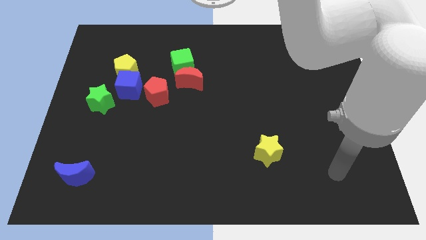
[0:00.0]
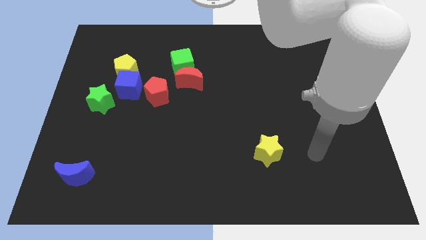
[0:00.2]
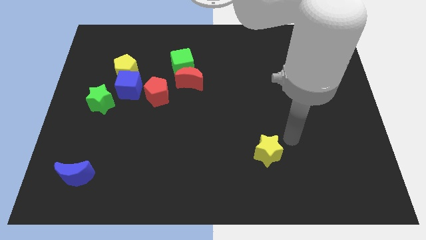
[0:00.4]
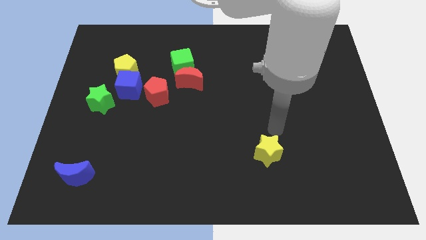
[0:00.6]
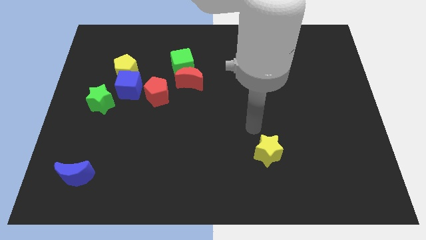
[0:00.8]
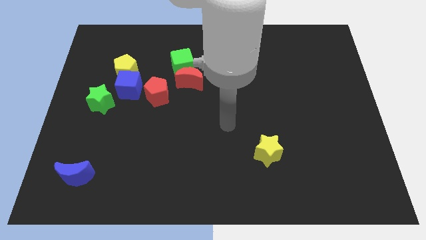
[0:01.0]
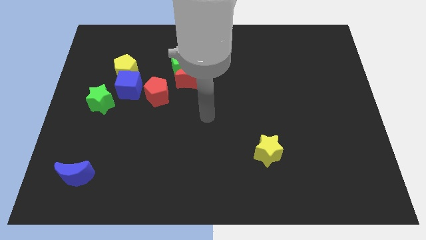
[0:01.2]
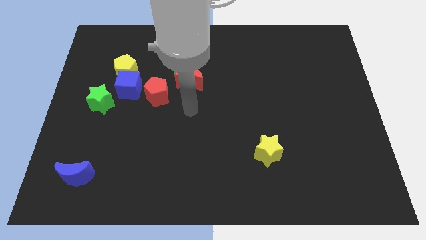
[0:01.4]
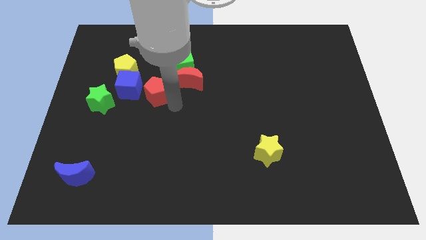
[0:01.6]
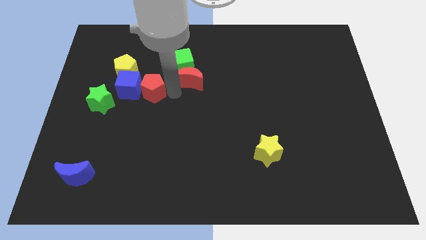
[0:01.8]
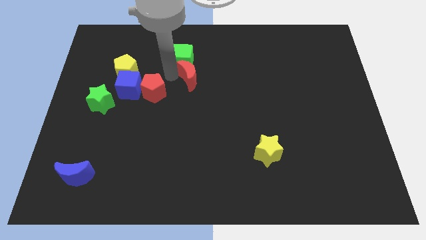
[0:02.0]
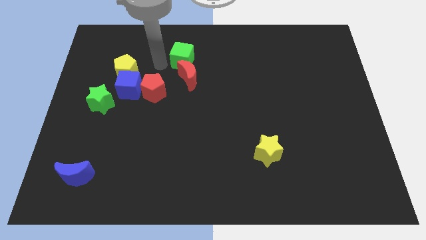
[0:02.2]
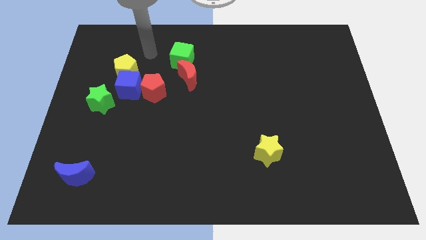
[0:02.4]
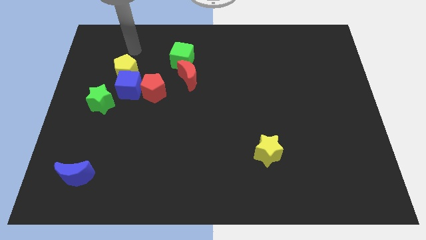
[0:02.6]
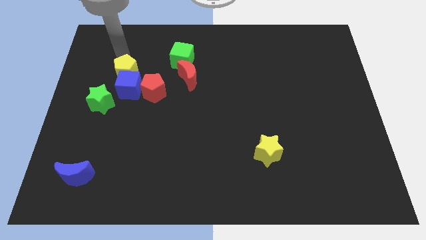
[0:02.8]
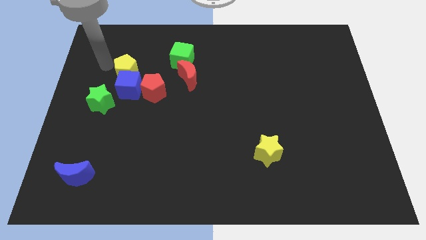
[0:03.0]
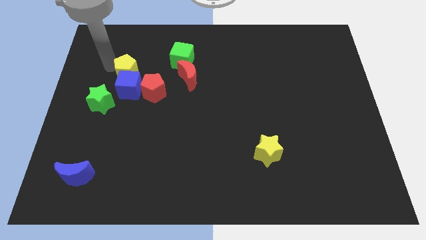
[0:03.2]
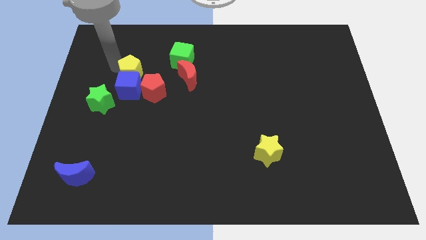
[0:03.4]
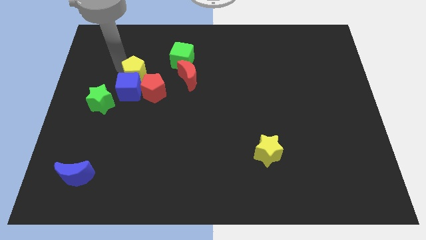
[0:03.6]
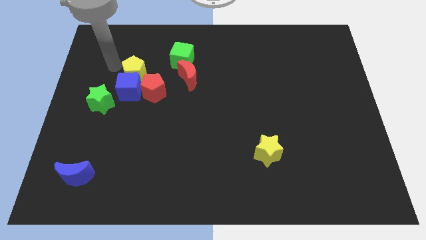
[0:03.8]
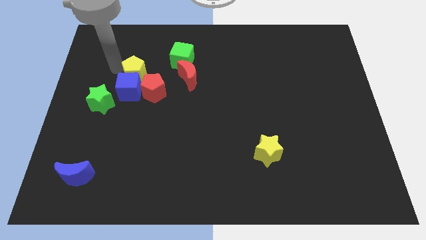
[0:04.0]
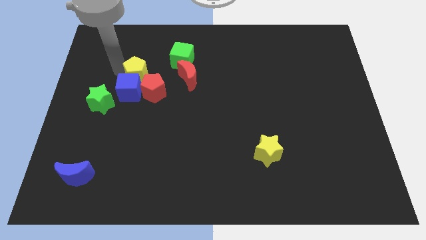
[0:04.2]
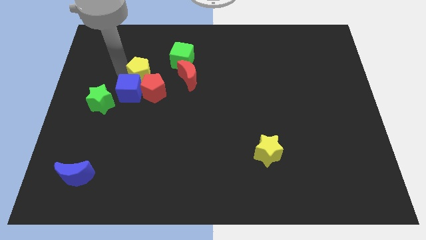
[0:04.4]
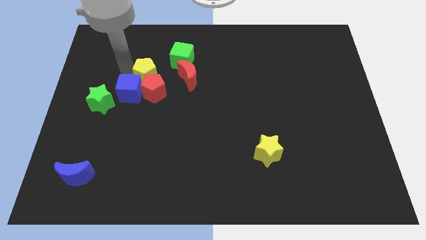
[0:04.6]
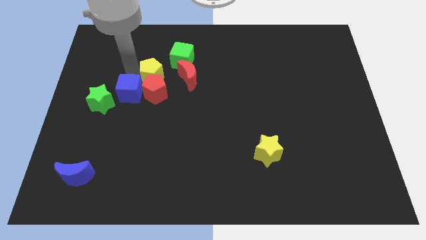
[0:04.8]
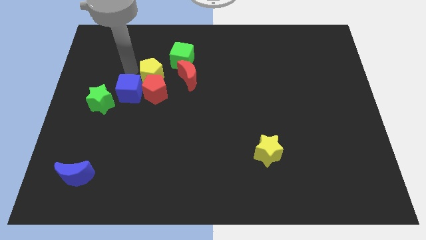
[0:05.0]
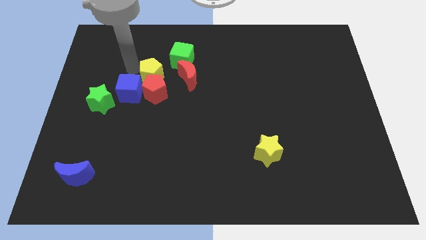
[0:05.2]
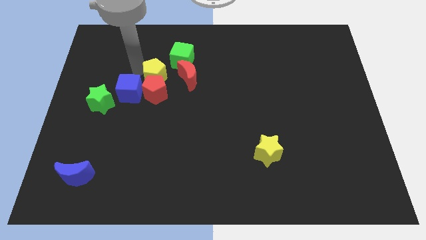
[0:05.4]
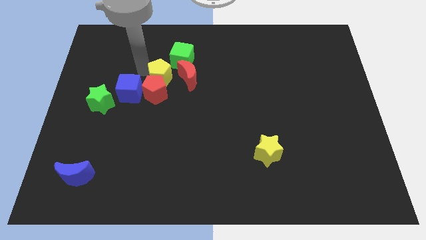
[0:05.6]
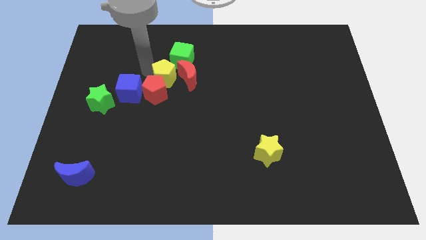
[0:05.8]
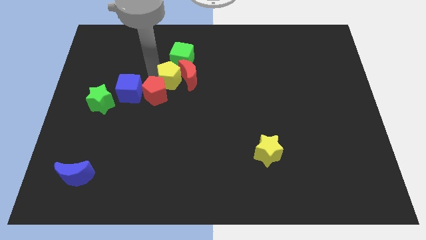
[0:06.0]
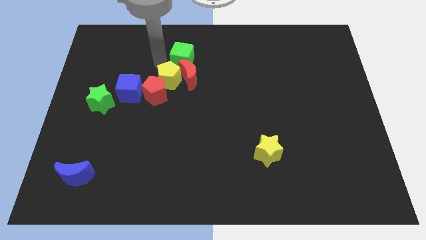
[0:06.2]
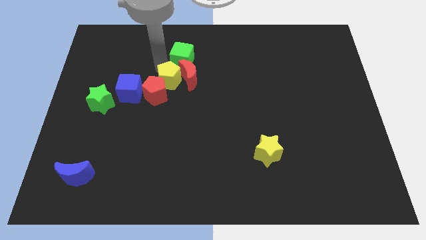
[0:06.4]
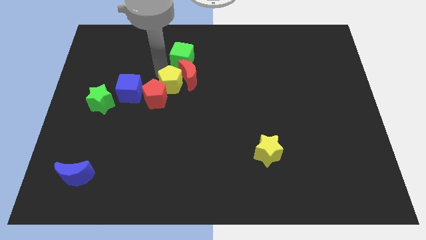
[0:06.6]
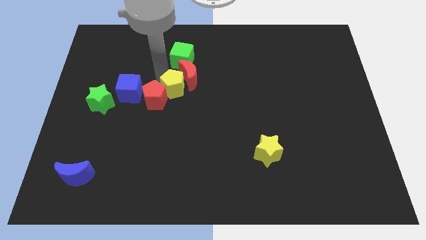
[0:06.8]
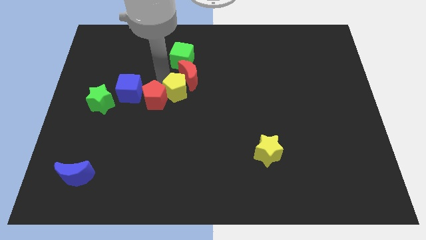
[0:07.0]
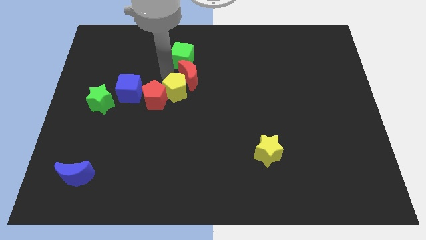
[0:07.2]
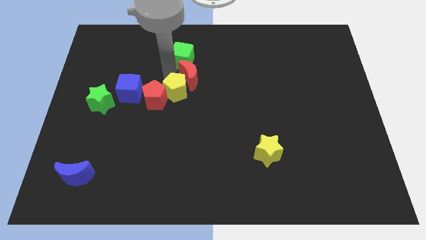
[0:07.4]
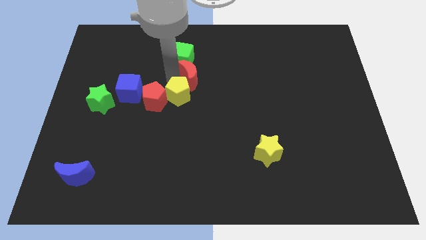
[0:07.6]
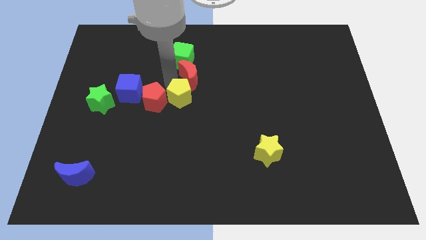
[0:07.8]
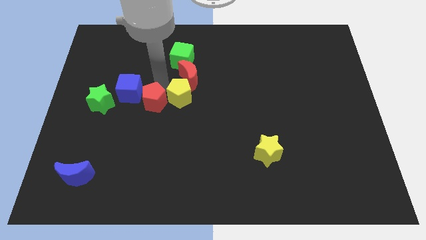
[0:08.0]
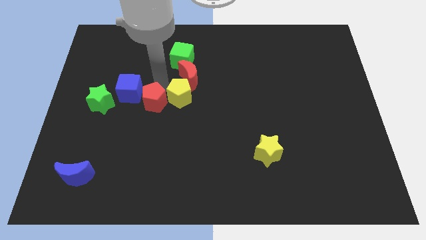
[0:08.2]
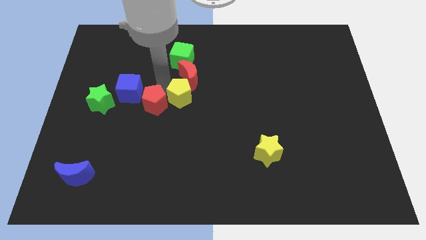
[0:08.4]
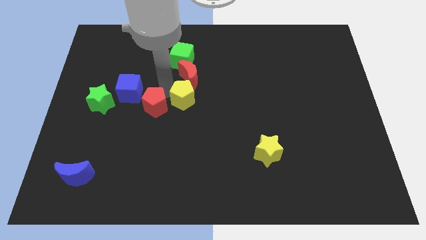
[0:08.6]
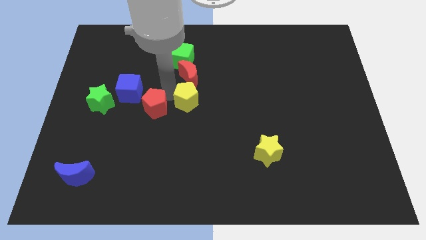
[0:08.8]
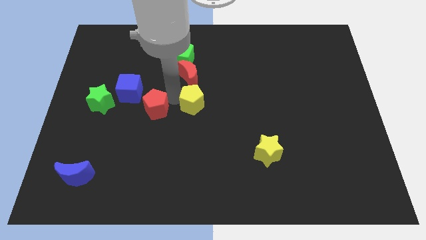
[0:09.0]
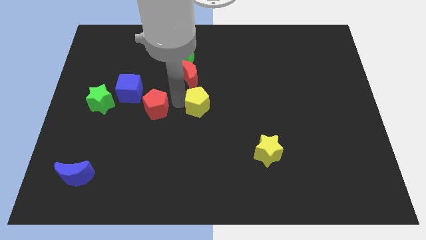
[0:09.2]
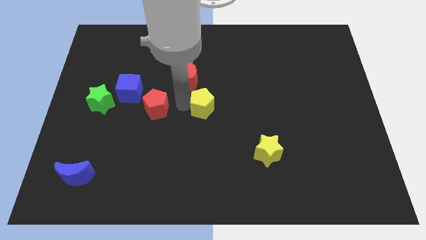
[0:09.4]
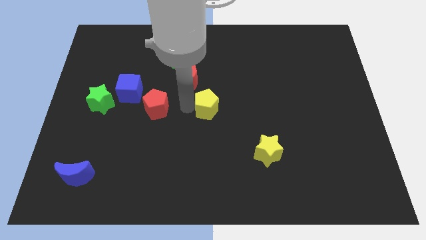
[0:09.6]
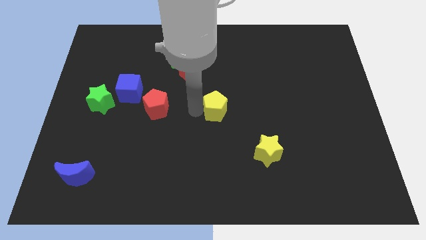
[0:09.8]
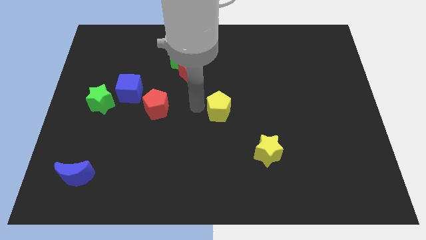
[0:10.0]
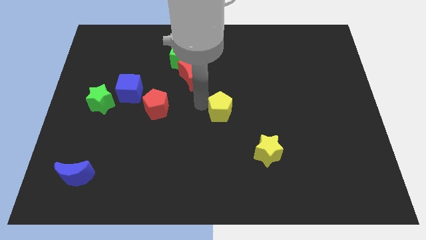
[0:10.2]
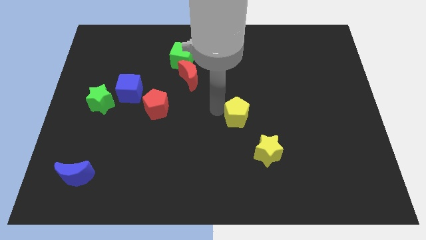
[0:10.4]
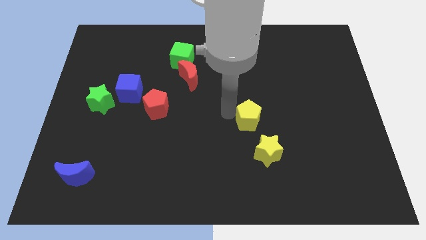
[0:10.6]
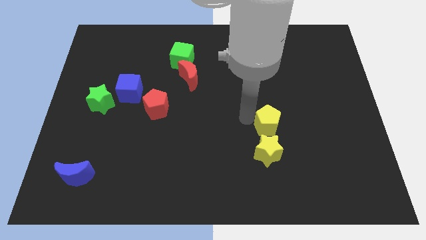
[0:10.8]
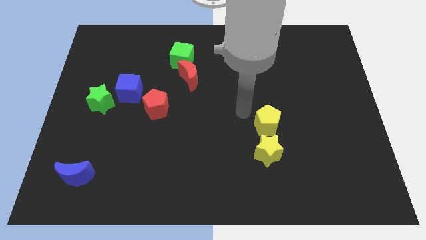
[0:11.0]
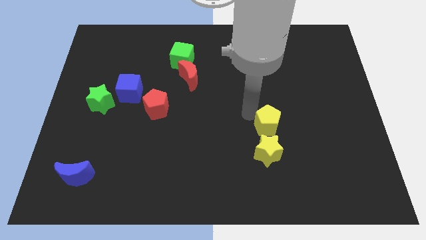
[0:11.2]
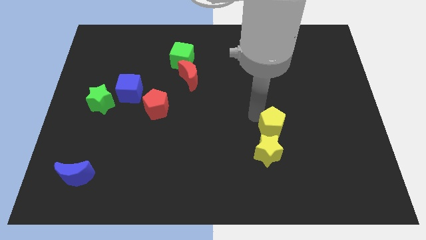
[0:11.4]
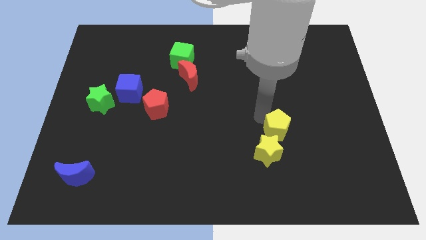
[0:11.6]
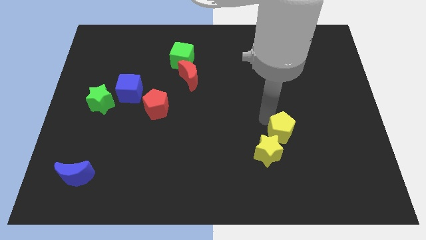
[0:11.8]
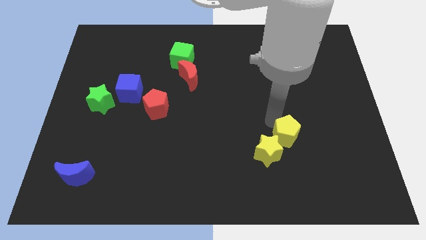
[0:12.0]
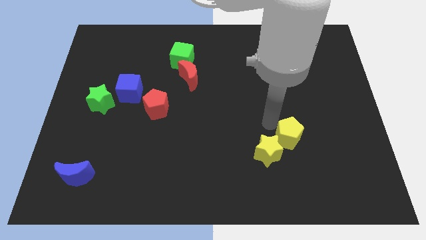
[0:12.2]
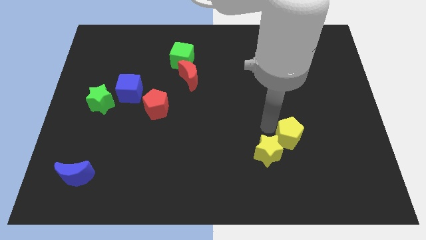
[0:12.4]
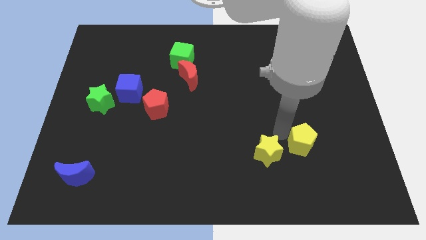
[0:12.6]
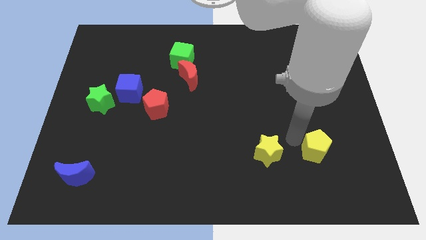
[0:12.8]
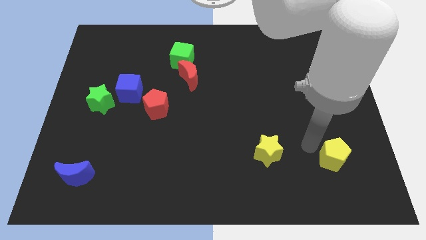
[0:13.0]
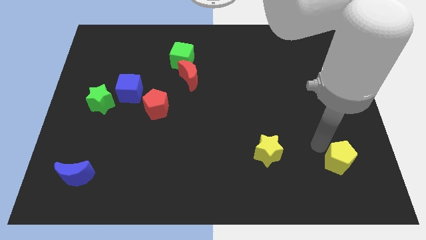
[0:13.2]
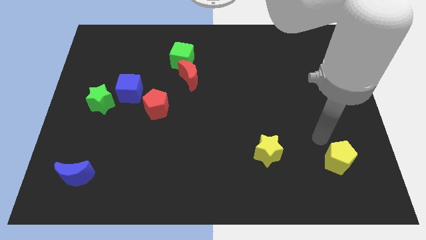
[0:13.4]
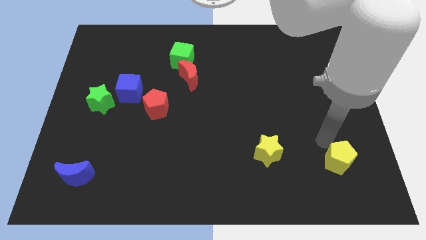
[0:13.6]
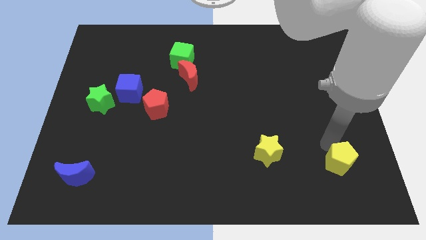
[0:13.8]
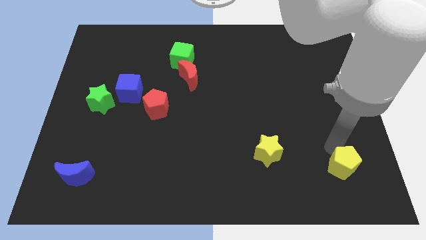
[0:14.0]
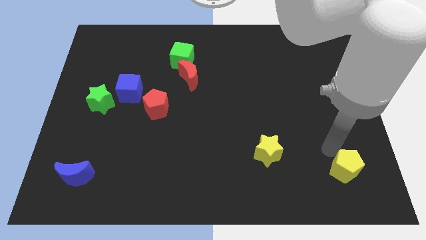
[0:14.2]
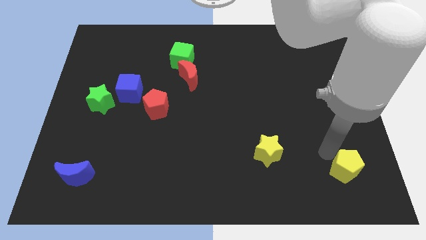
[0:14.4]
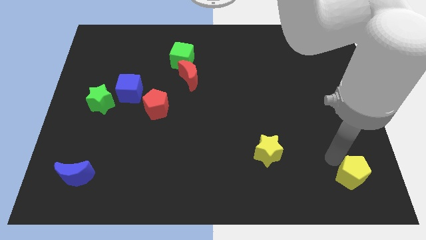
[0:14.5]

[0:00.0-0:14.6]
put the yellow pentagon to the bottom right corner
